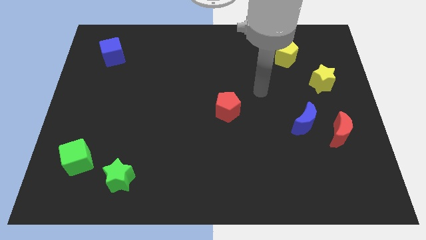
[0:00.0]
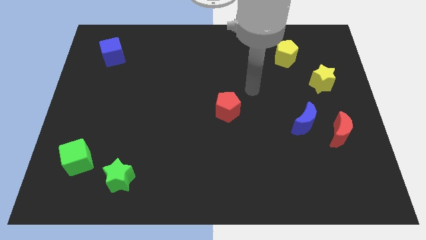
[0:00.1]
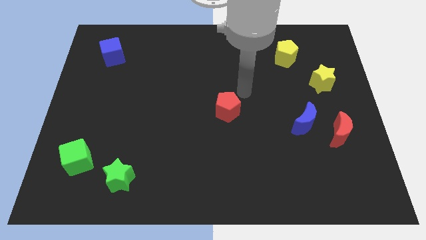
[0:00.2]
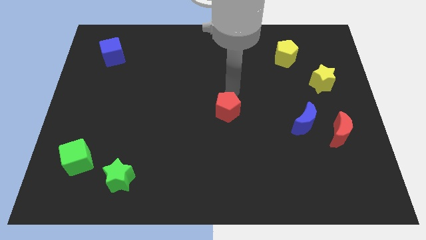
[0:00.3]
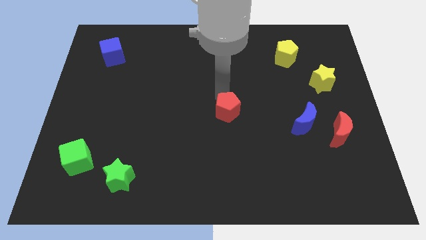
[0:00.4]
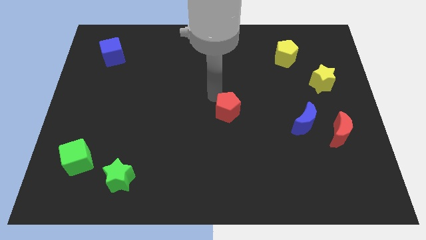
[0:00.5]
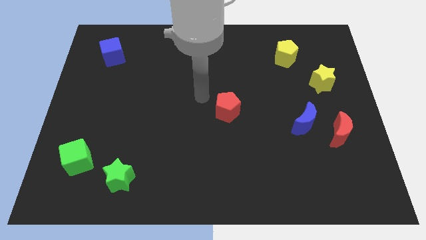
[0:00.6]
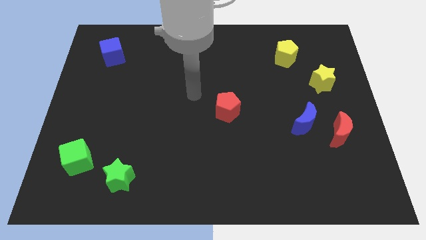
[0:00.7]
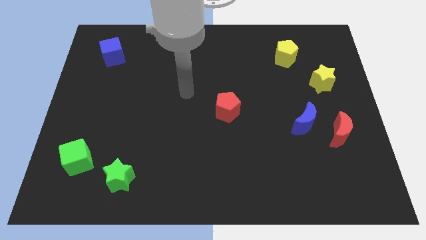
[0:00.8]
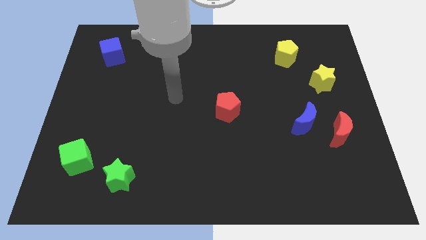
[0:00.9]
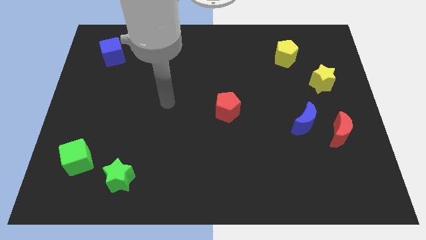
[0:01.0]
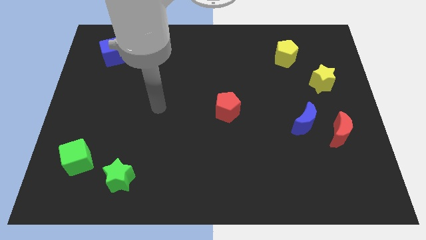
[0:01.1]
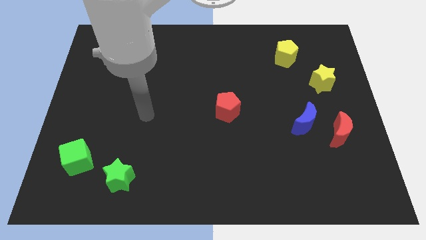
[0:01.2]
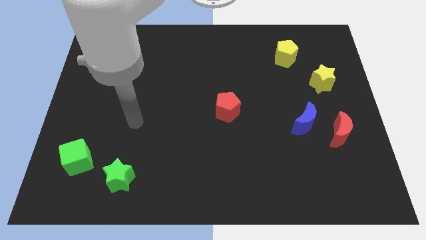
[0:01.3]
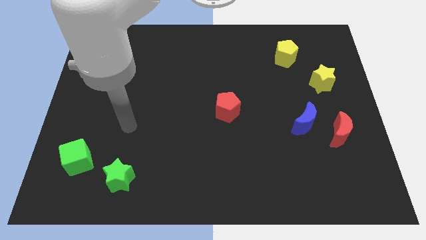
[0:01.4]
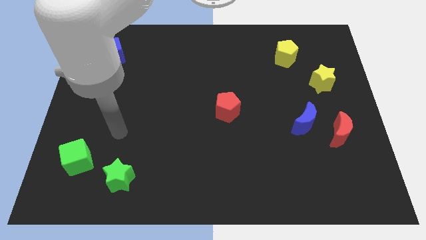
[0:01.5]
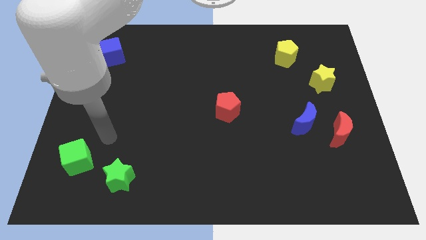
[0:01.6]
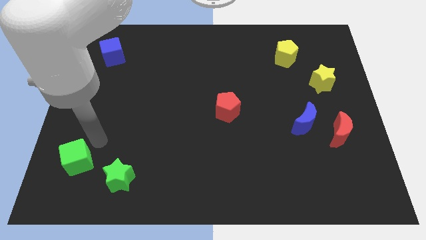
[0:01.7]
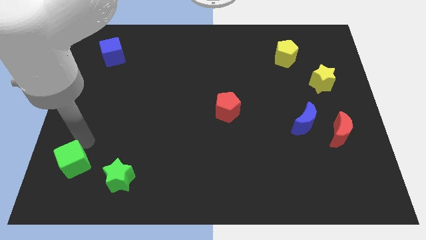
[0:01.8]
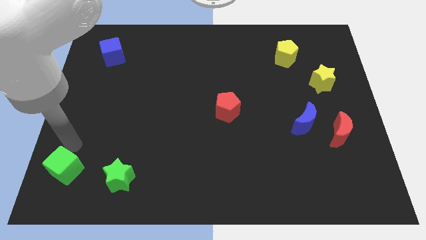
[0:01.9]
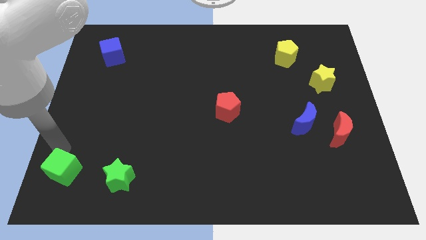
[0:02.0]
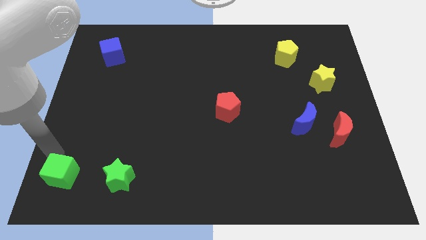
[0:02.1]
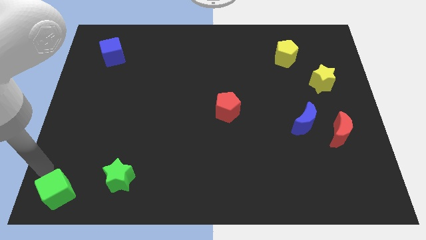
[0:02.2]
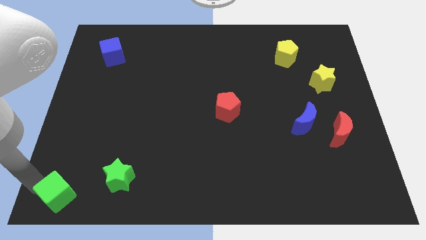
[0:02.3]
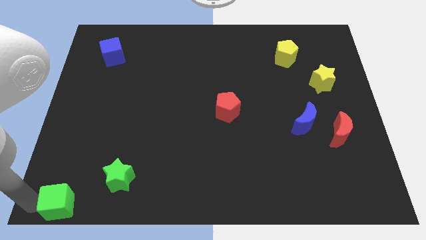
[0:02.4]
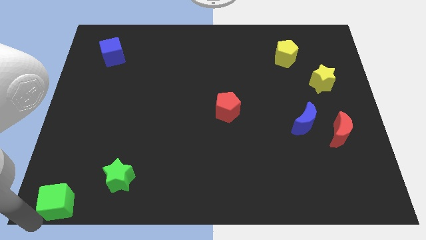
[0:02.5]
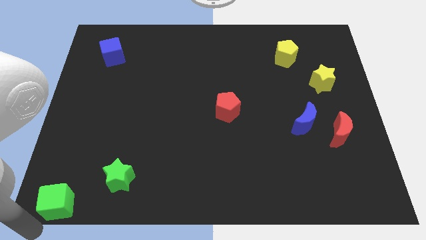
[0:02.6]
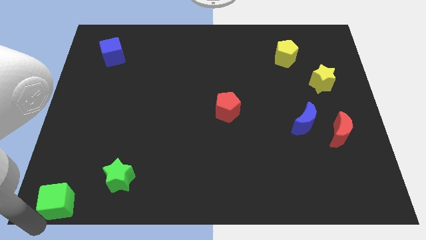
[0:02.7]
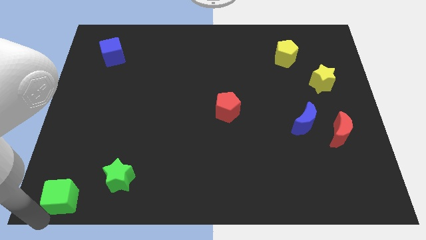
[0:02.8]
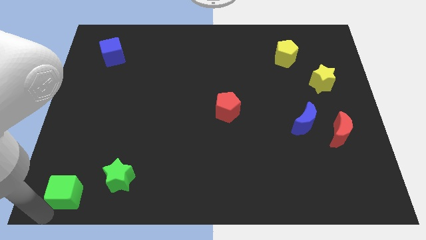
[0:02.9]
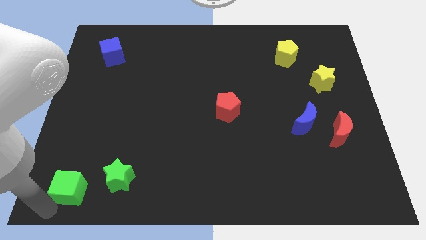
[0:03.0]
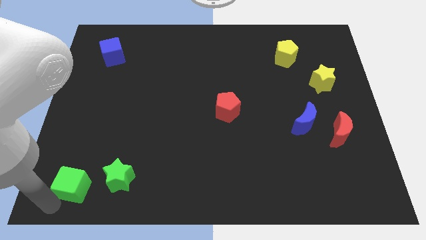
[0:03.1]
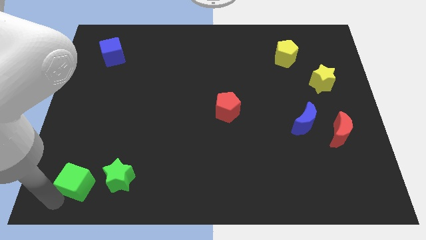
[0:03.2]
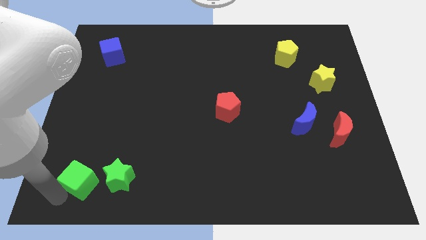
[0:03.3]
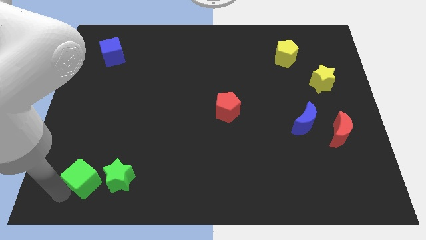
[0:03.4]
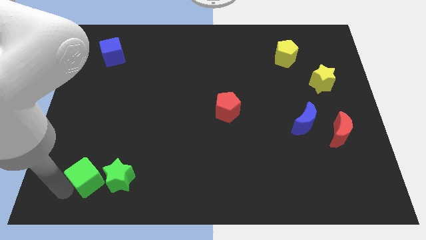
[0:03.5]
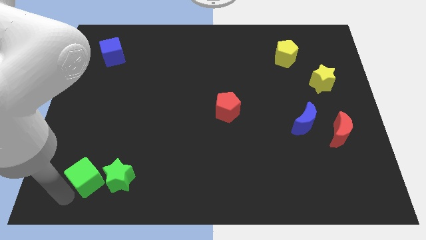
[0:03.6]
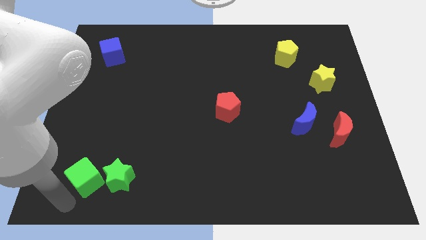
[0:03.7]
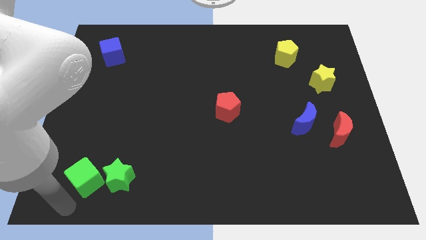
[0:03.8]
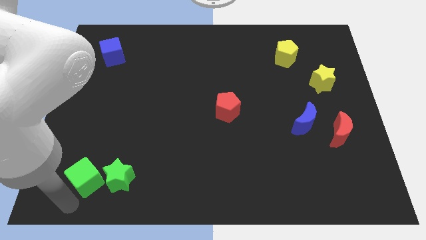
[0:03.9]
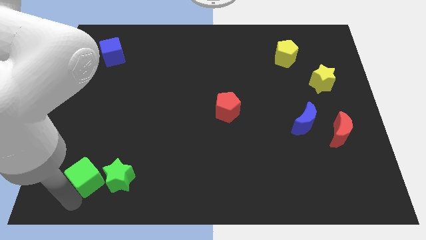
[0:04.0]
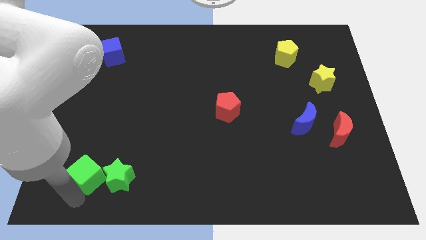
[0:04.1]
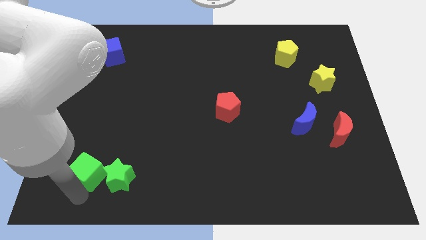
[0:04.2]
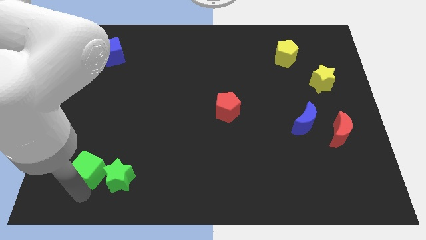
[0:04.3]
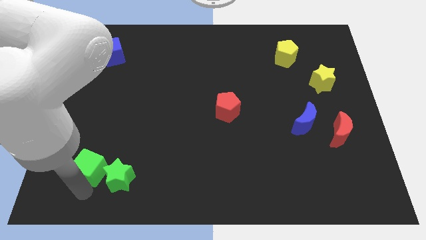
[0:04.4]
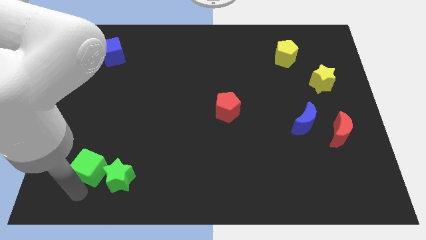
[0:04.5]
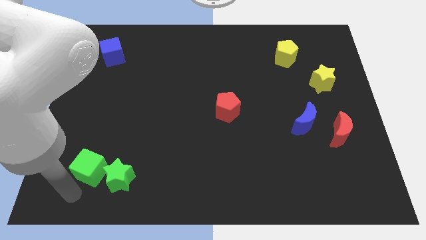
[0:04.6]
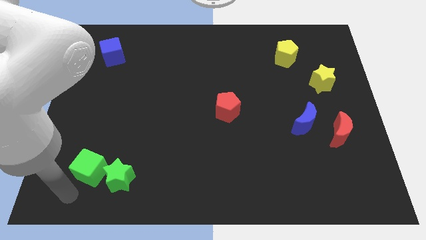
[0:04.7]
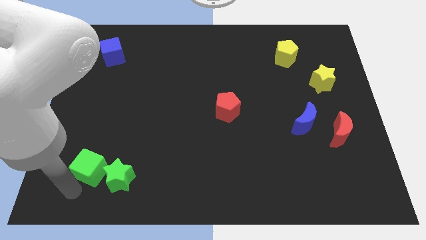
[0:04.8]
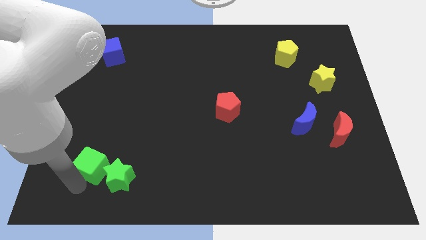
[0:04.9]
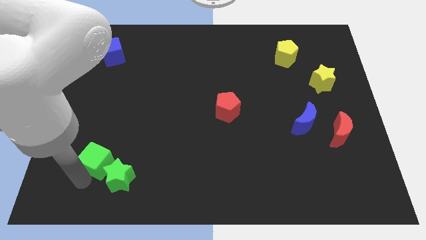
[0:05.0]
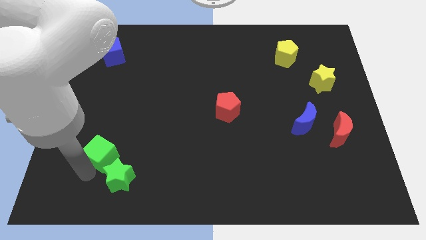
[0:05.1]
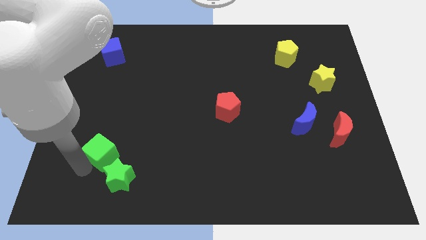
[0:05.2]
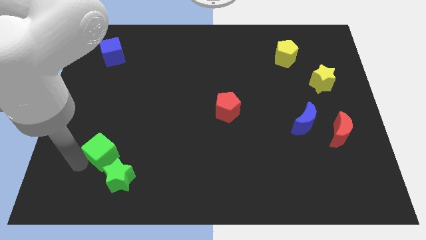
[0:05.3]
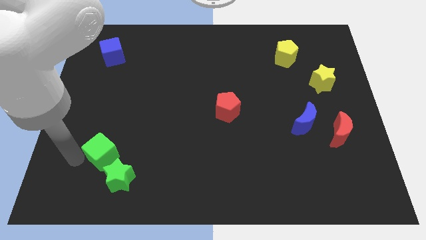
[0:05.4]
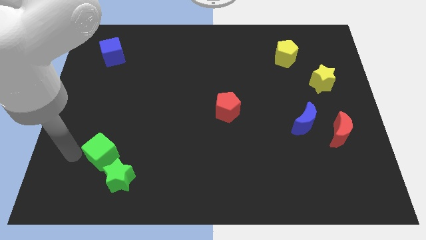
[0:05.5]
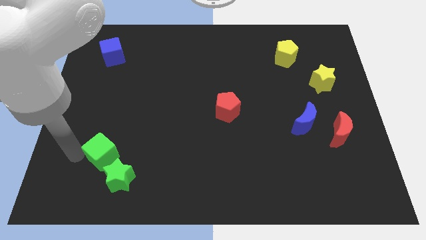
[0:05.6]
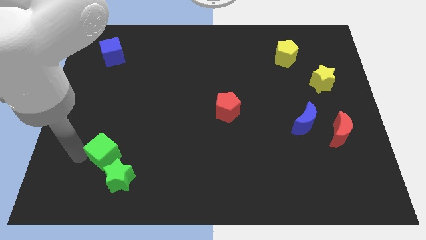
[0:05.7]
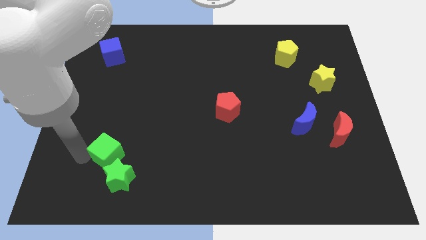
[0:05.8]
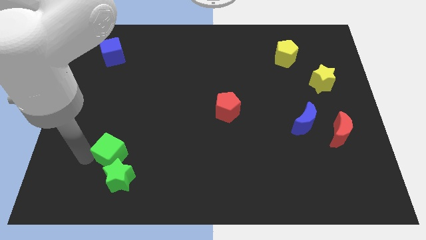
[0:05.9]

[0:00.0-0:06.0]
move the green cube a little bit to the right

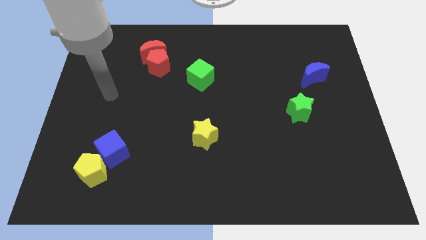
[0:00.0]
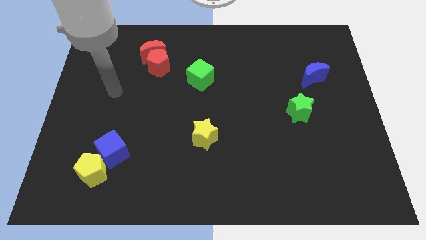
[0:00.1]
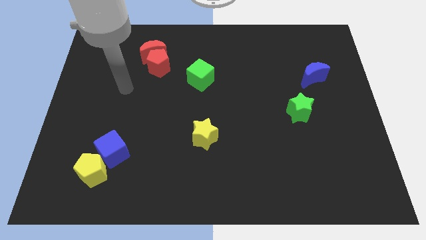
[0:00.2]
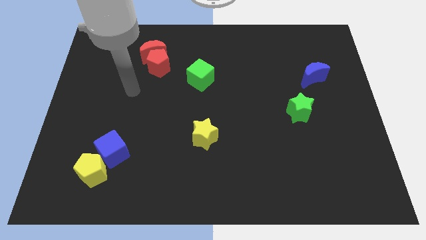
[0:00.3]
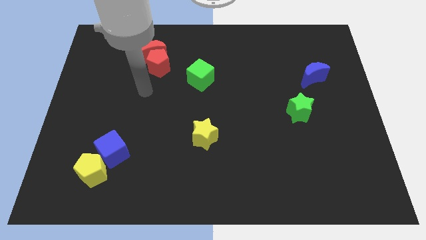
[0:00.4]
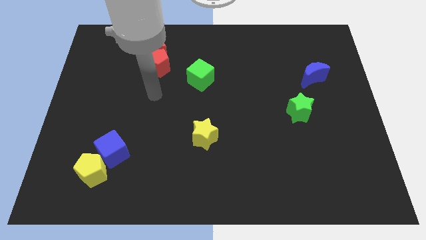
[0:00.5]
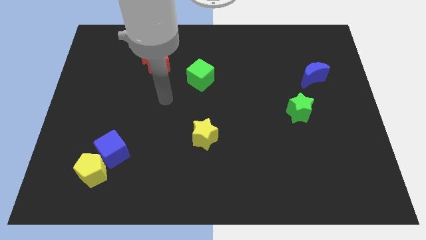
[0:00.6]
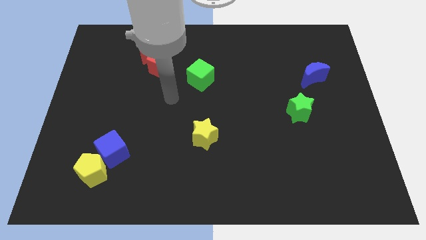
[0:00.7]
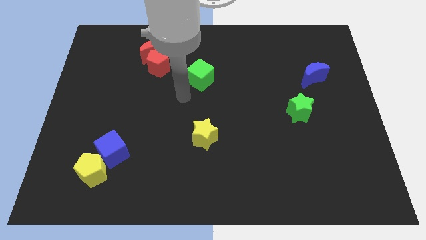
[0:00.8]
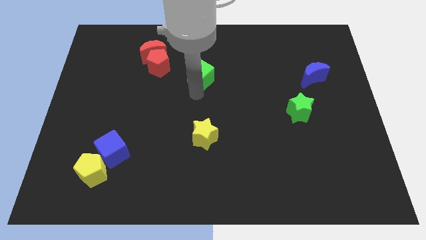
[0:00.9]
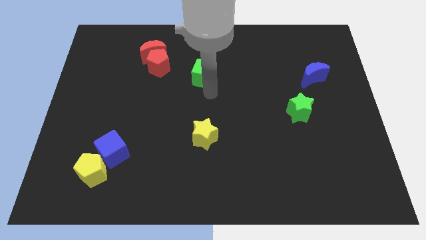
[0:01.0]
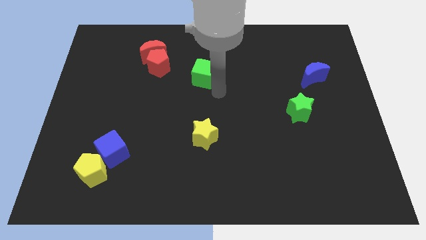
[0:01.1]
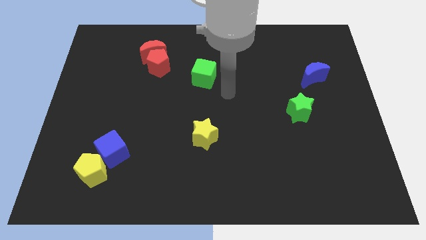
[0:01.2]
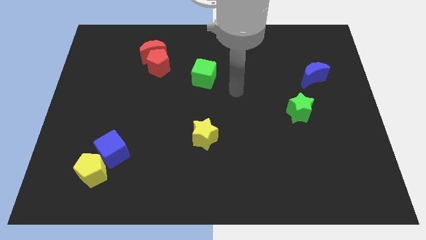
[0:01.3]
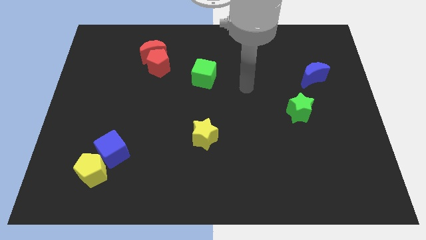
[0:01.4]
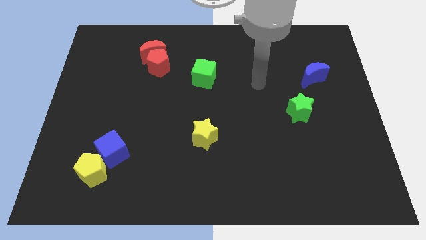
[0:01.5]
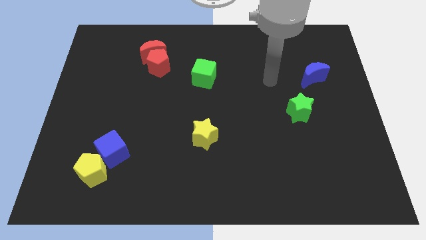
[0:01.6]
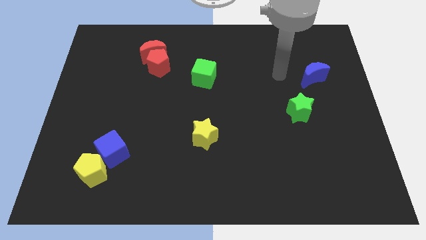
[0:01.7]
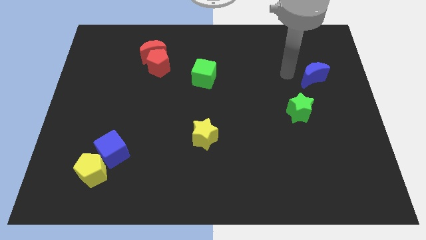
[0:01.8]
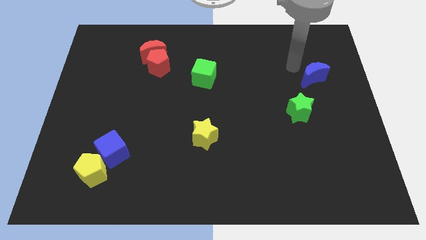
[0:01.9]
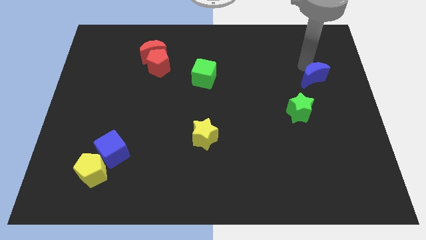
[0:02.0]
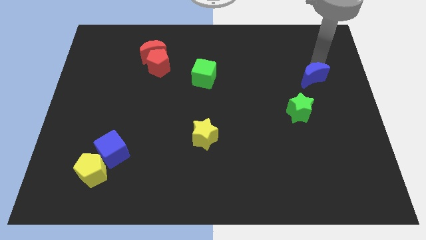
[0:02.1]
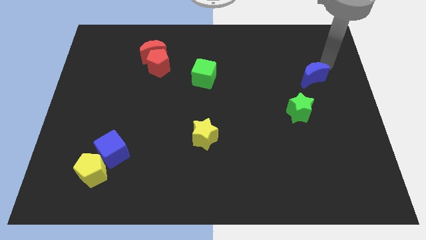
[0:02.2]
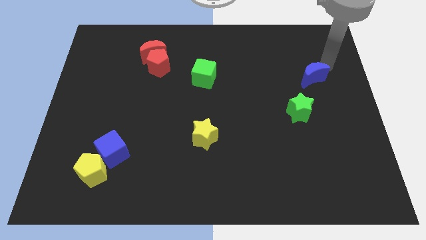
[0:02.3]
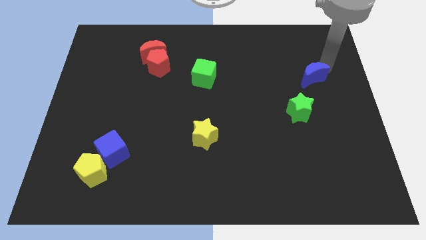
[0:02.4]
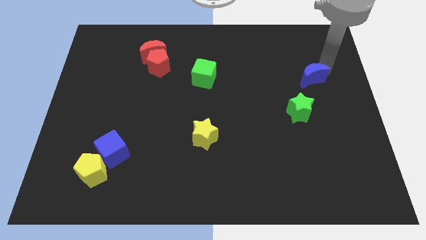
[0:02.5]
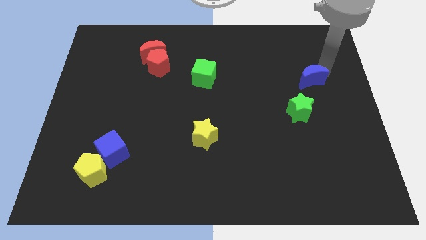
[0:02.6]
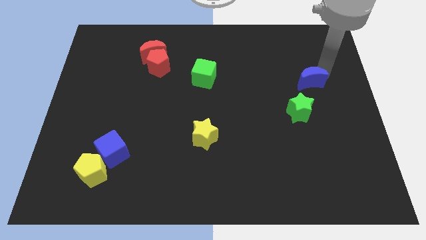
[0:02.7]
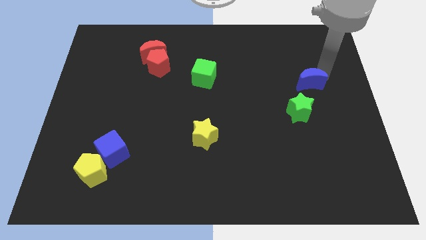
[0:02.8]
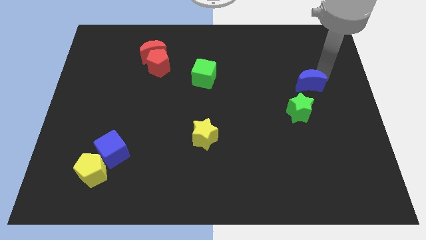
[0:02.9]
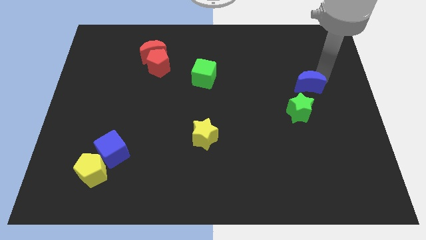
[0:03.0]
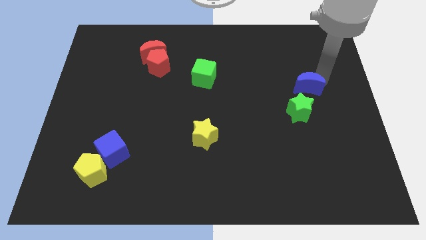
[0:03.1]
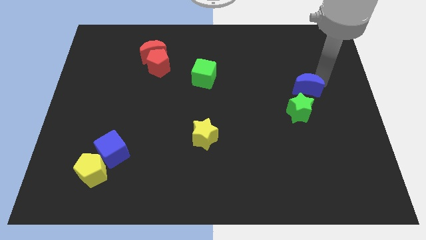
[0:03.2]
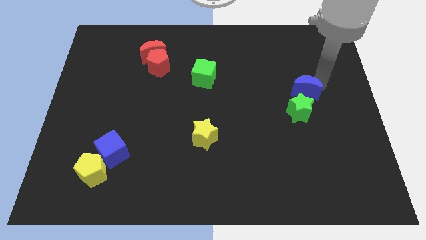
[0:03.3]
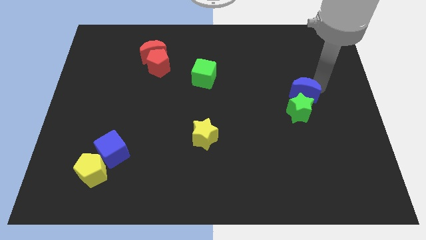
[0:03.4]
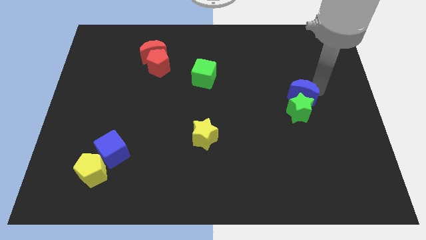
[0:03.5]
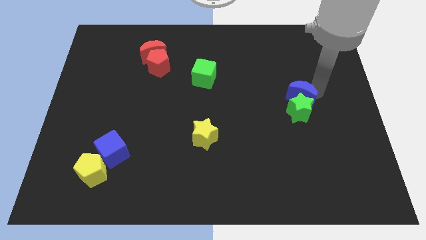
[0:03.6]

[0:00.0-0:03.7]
slide the blue moon somewhat downwards and left
